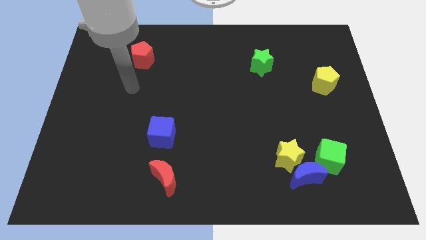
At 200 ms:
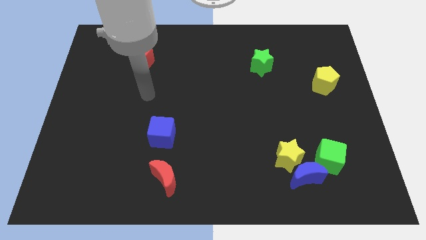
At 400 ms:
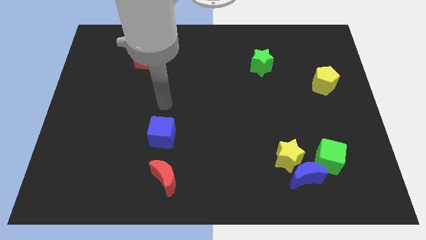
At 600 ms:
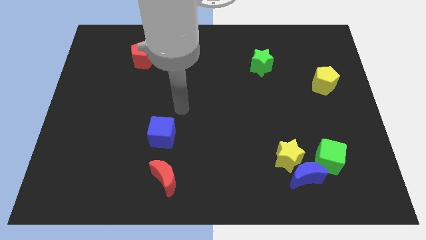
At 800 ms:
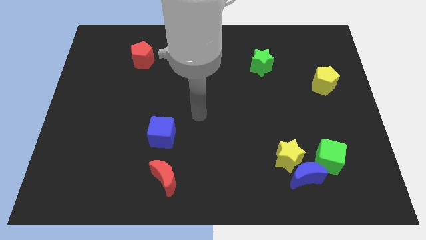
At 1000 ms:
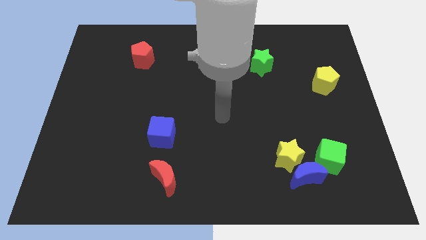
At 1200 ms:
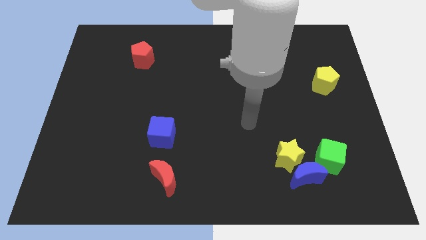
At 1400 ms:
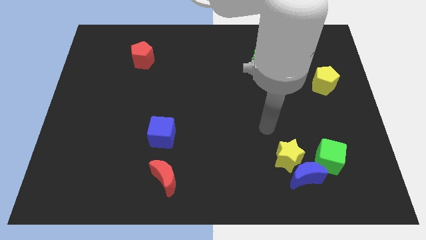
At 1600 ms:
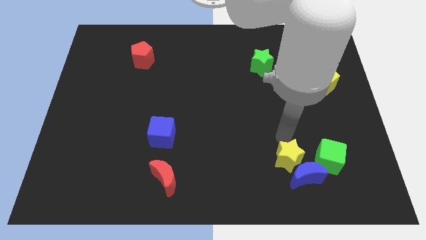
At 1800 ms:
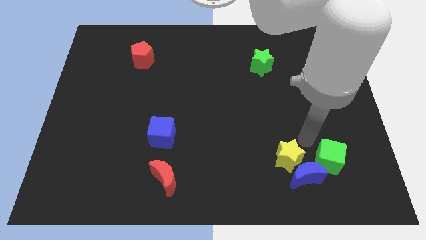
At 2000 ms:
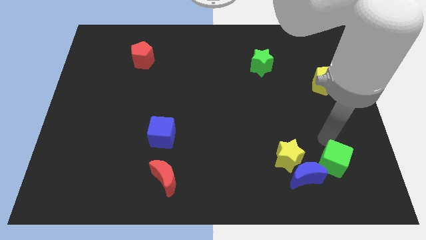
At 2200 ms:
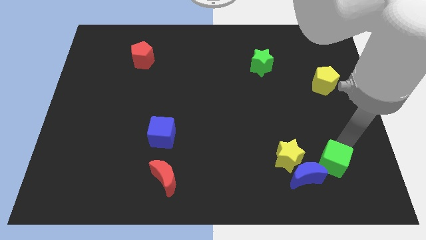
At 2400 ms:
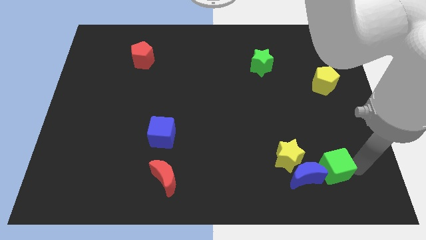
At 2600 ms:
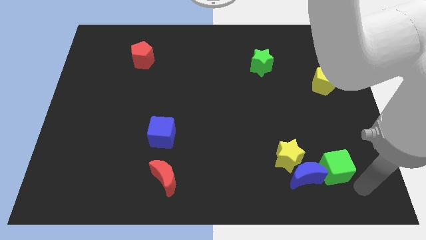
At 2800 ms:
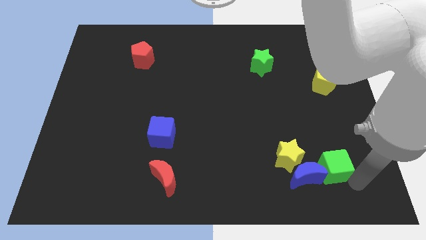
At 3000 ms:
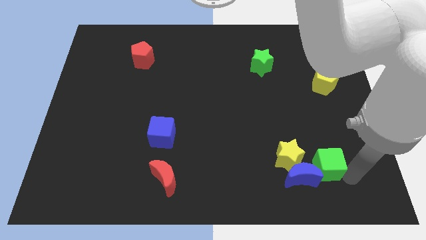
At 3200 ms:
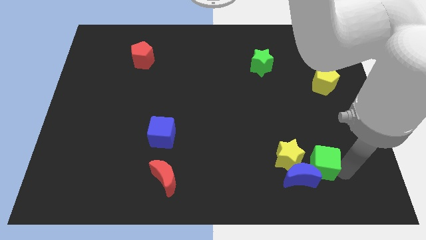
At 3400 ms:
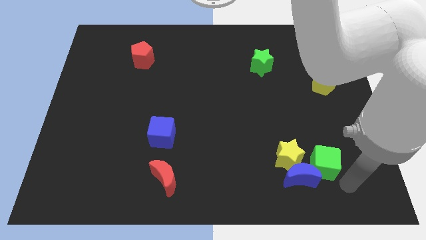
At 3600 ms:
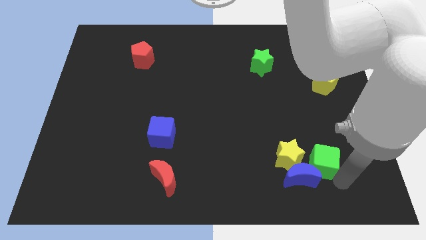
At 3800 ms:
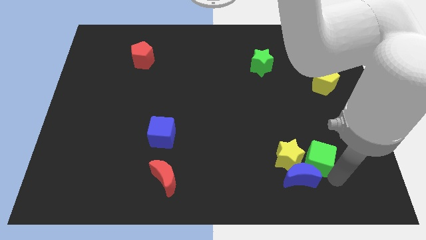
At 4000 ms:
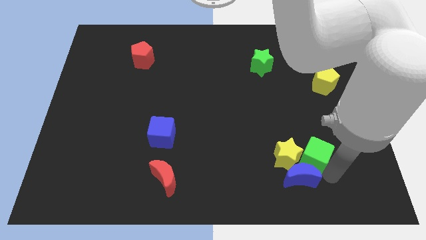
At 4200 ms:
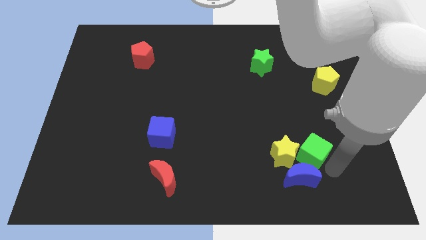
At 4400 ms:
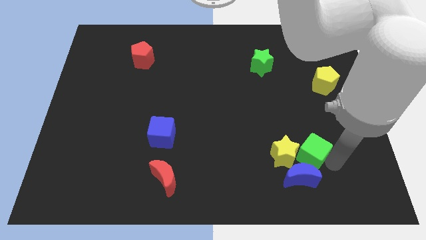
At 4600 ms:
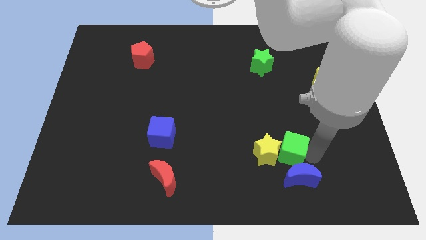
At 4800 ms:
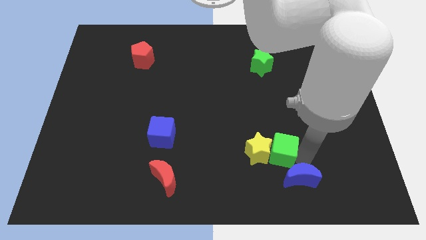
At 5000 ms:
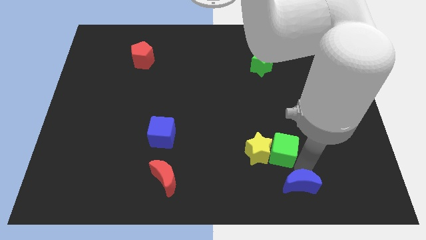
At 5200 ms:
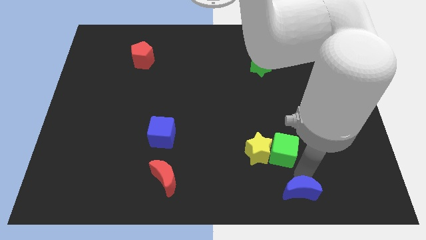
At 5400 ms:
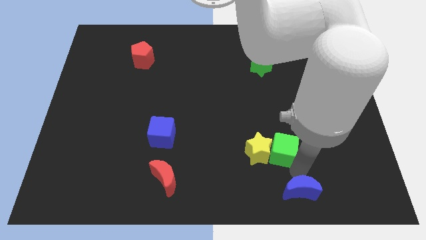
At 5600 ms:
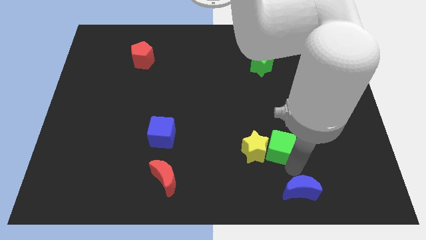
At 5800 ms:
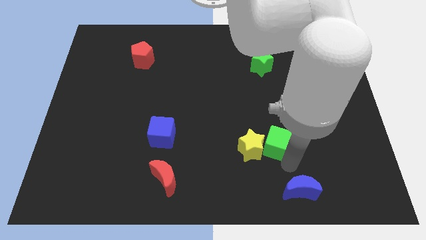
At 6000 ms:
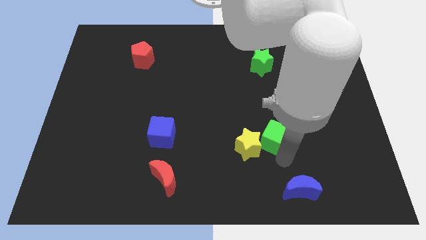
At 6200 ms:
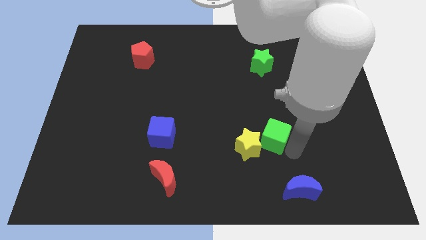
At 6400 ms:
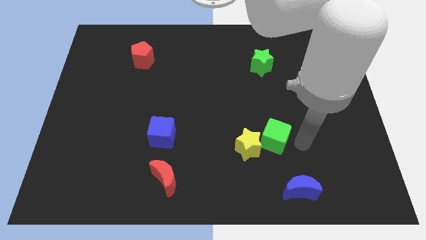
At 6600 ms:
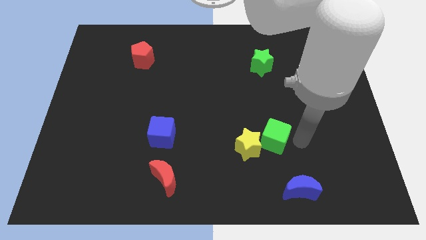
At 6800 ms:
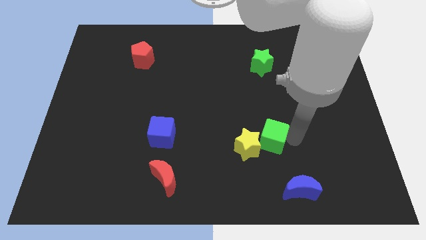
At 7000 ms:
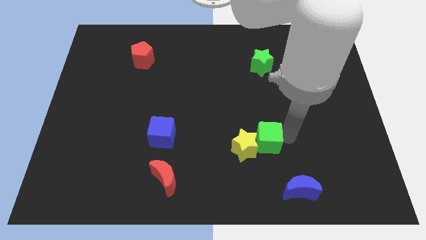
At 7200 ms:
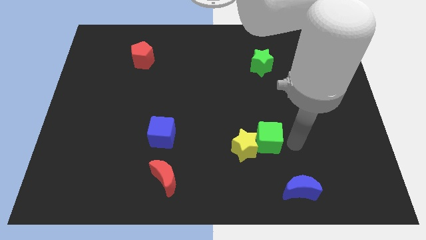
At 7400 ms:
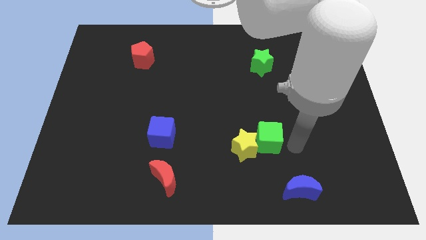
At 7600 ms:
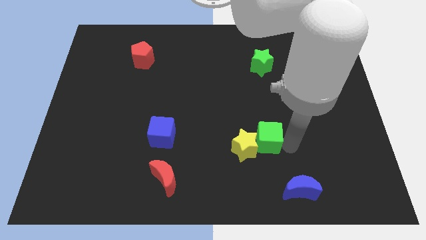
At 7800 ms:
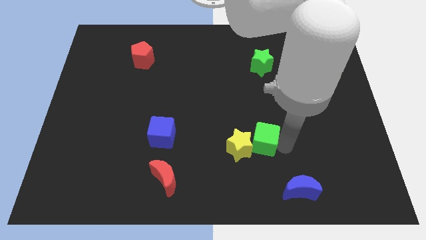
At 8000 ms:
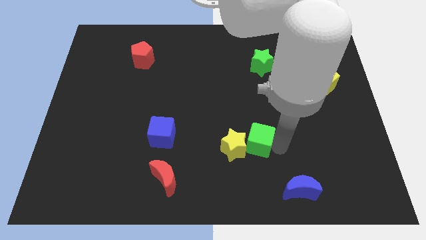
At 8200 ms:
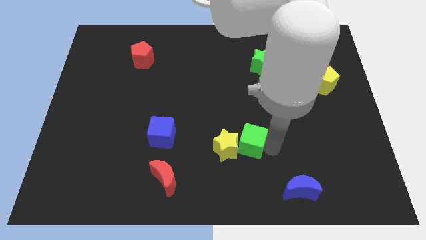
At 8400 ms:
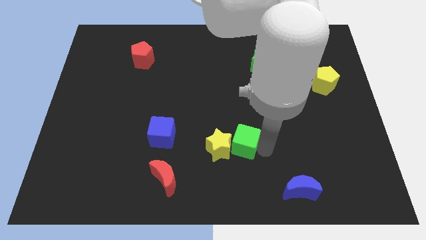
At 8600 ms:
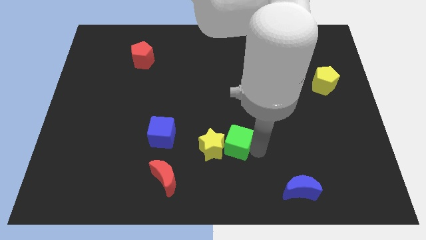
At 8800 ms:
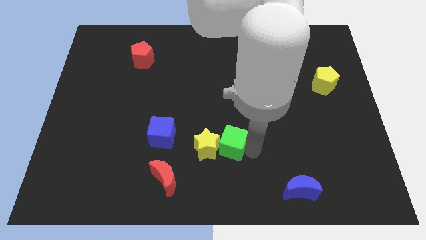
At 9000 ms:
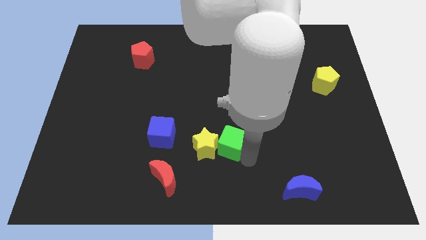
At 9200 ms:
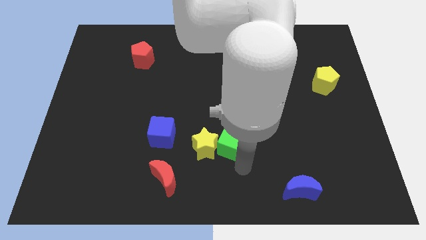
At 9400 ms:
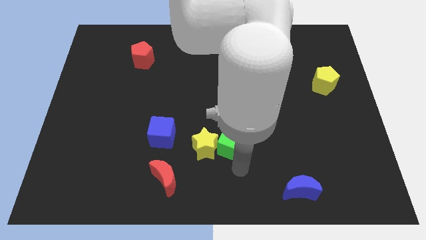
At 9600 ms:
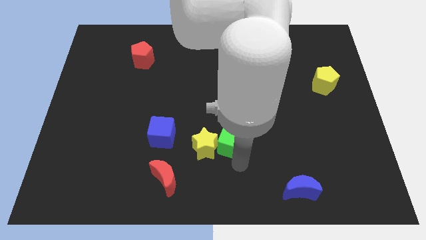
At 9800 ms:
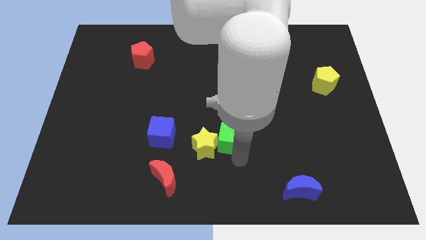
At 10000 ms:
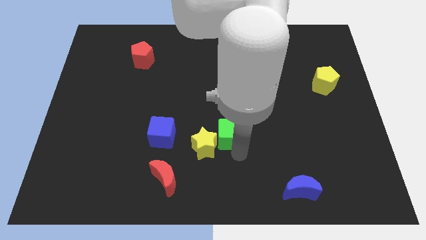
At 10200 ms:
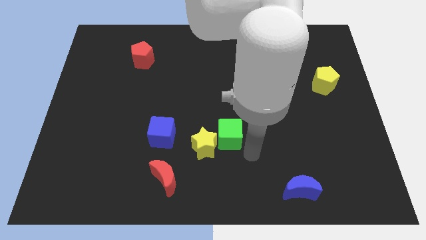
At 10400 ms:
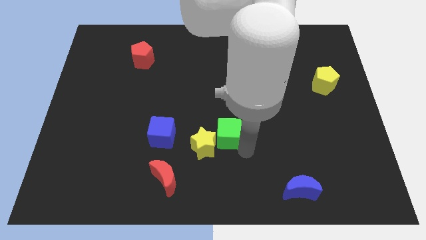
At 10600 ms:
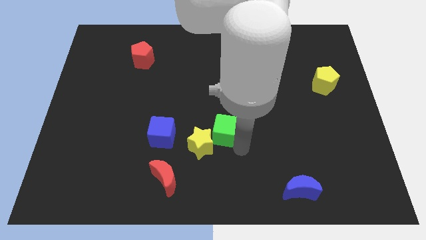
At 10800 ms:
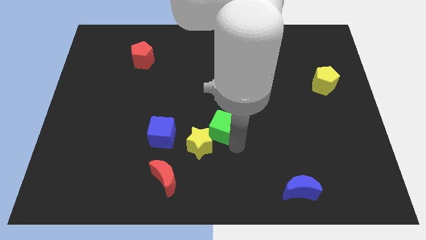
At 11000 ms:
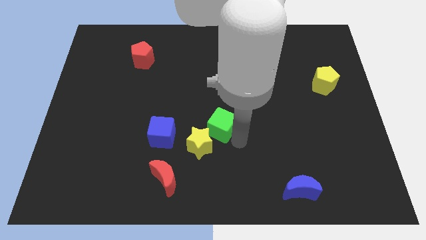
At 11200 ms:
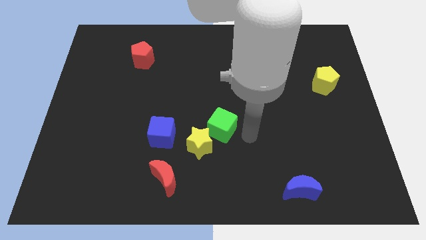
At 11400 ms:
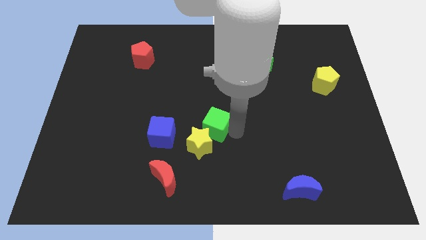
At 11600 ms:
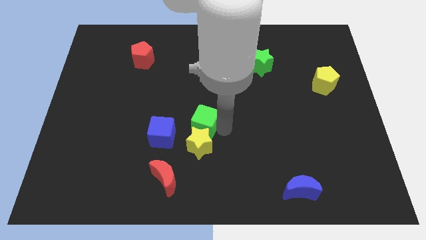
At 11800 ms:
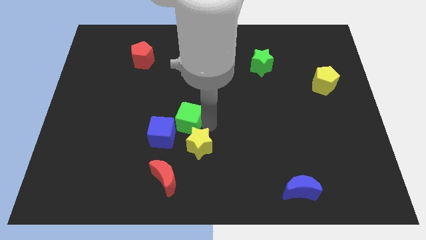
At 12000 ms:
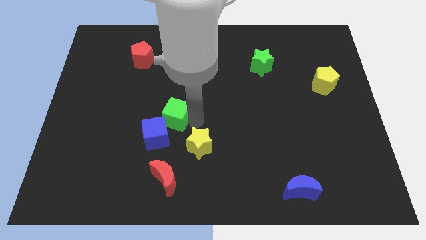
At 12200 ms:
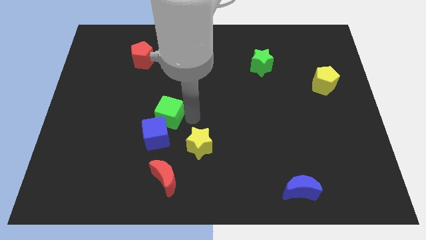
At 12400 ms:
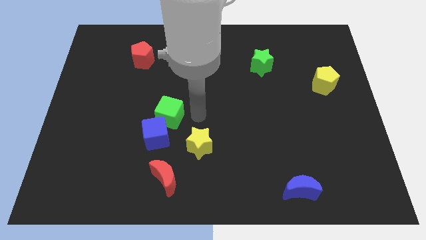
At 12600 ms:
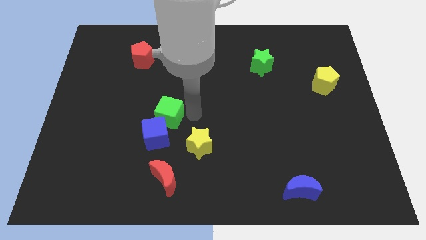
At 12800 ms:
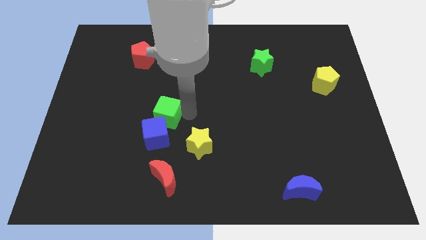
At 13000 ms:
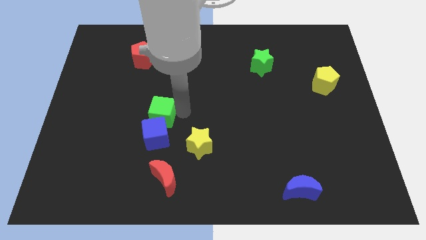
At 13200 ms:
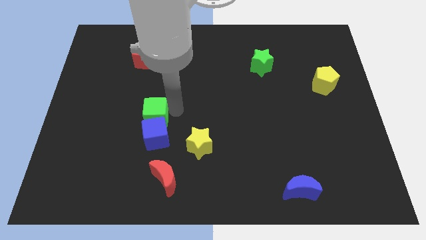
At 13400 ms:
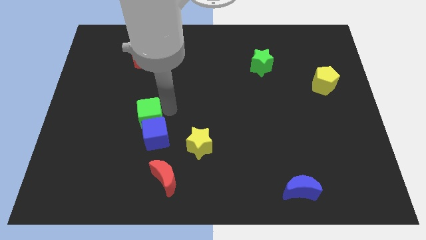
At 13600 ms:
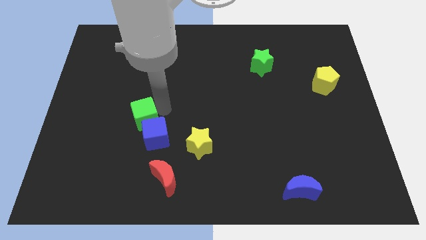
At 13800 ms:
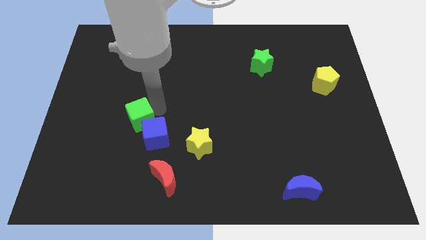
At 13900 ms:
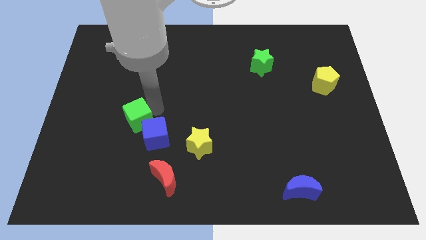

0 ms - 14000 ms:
slide the green cube to the left of the blue cube

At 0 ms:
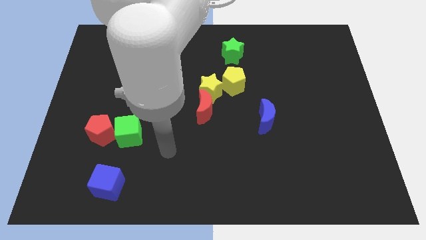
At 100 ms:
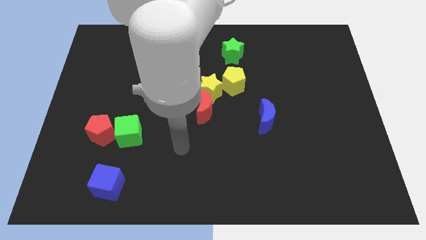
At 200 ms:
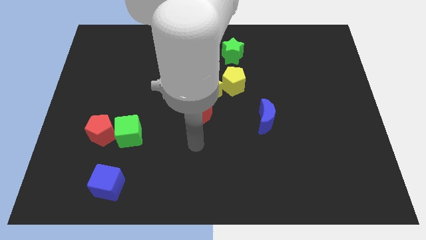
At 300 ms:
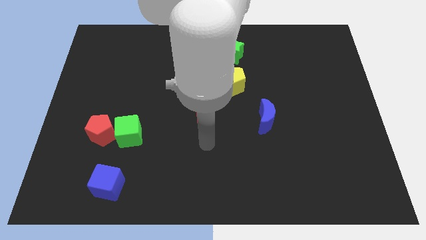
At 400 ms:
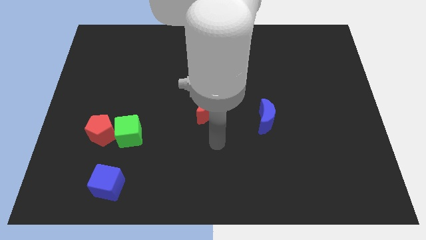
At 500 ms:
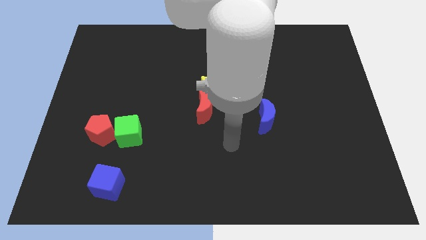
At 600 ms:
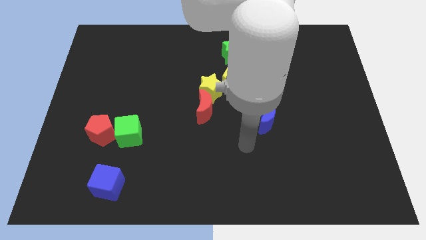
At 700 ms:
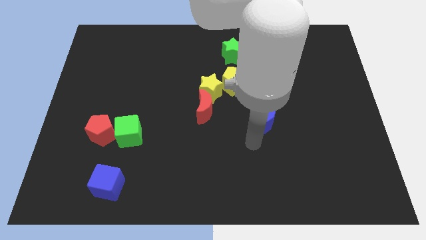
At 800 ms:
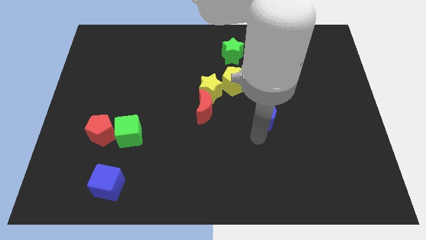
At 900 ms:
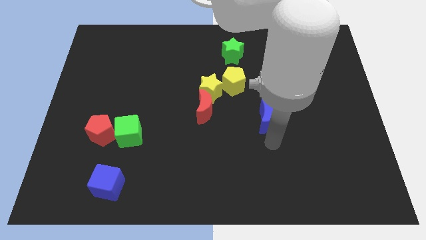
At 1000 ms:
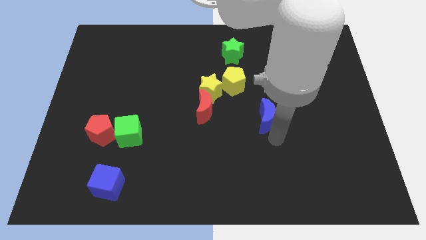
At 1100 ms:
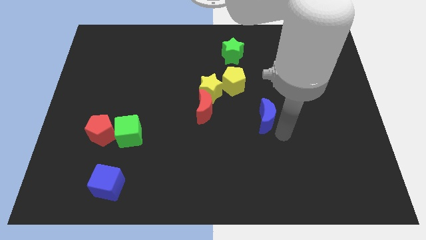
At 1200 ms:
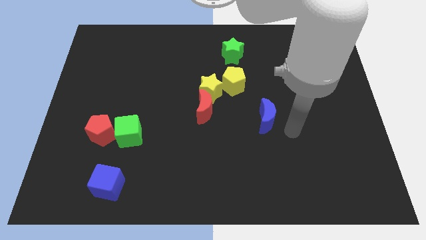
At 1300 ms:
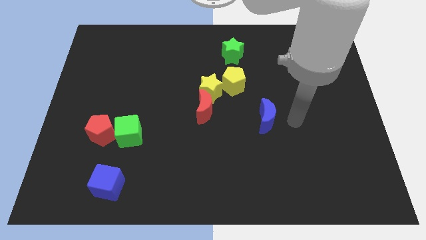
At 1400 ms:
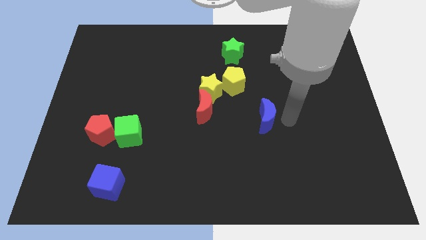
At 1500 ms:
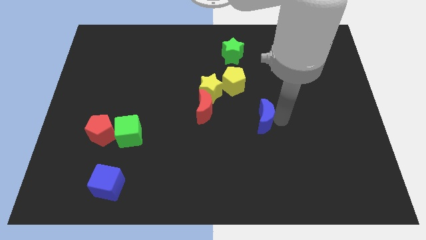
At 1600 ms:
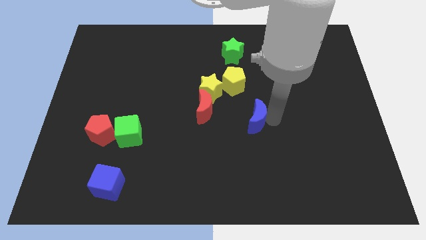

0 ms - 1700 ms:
put the blue moon to the bottom of the yellow pentagon
